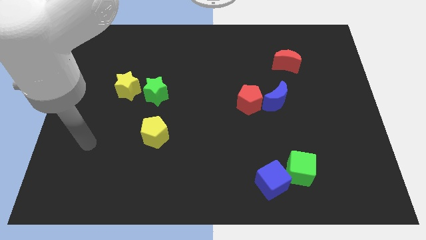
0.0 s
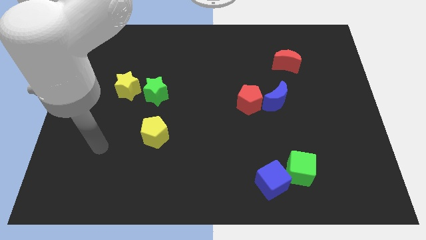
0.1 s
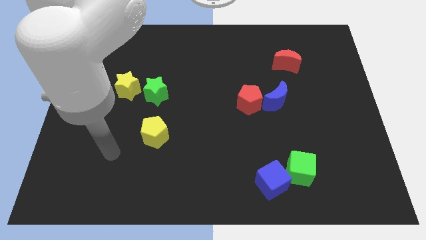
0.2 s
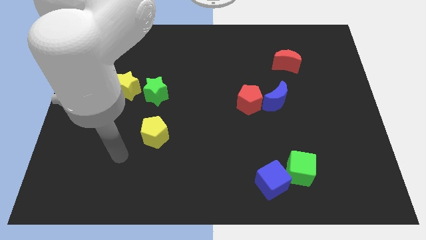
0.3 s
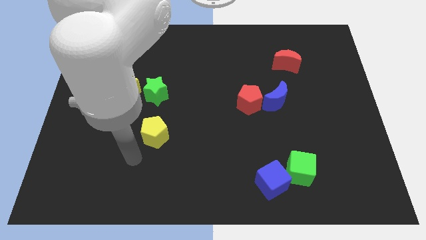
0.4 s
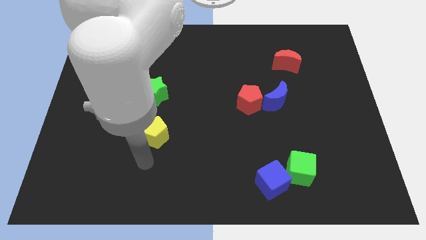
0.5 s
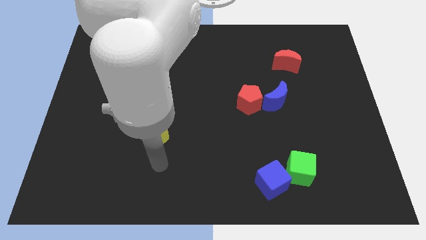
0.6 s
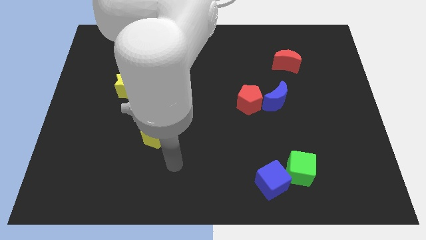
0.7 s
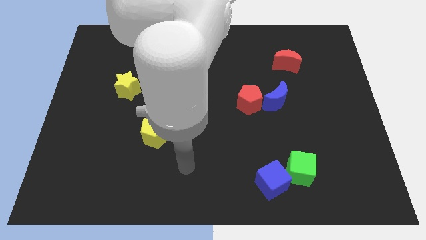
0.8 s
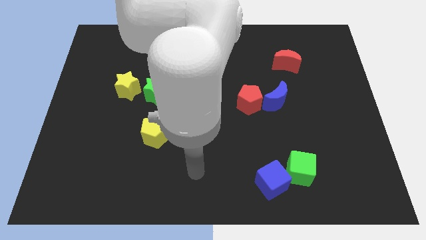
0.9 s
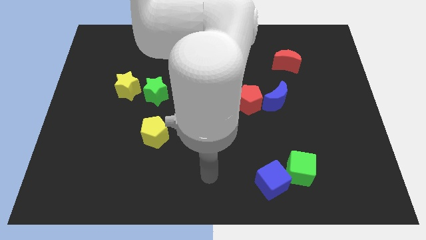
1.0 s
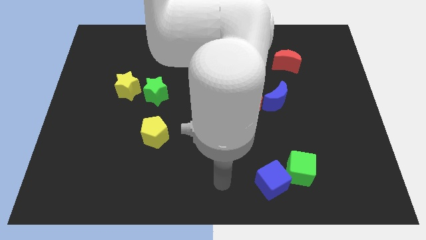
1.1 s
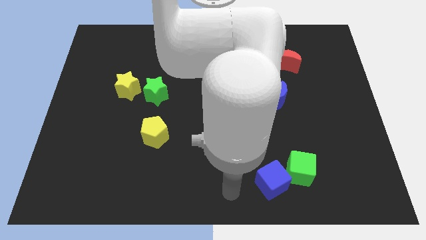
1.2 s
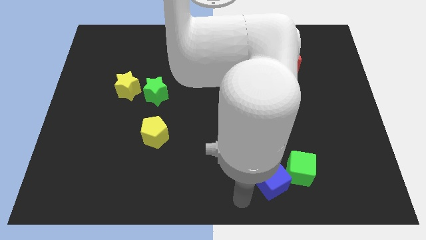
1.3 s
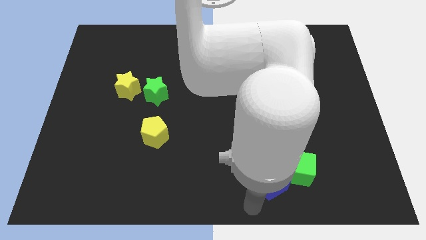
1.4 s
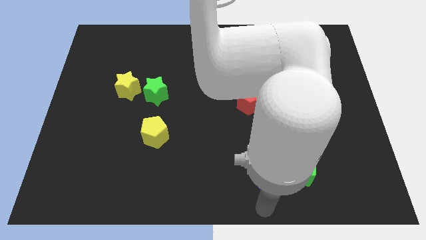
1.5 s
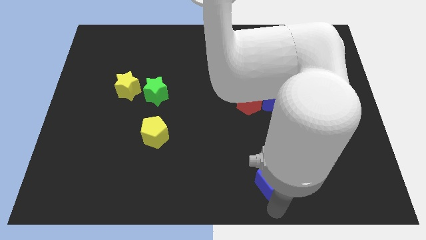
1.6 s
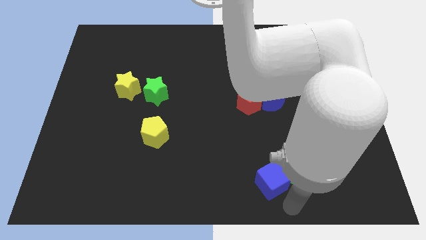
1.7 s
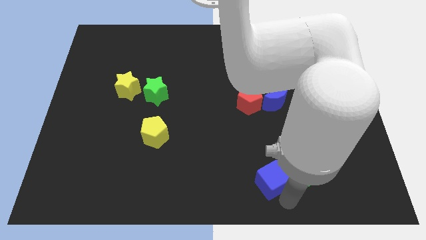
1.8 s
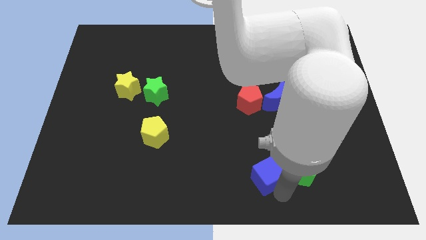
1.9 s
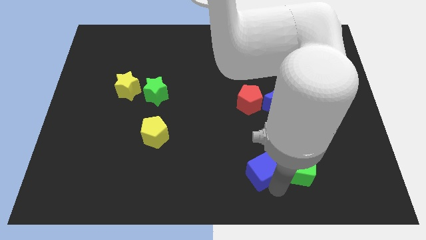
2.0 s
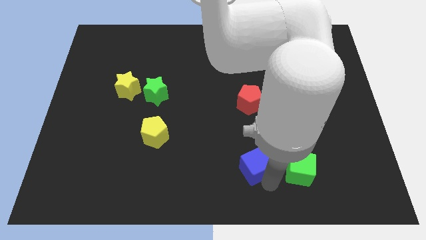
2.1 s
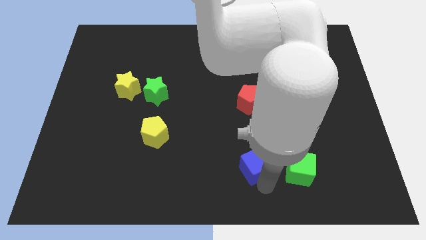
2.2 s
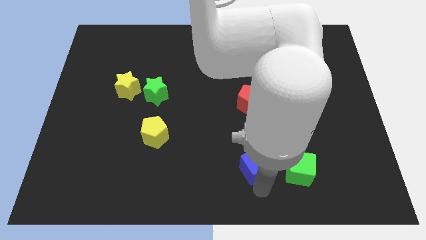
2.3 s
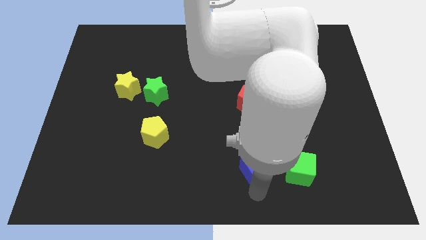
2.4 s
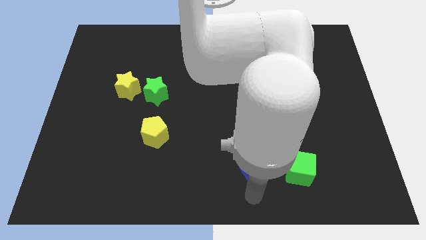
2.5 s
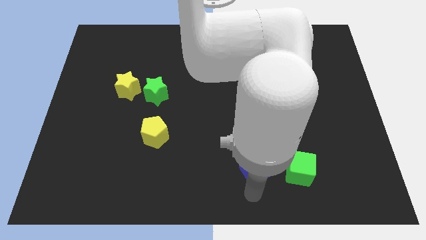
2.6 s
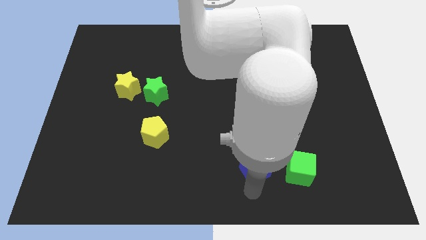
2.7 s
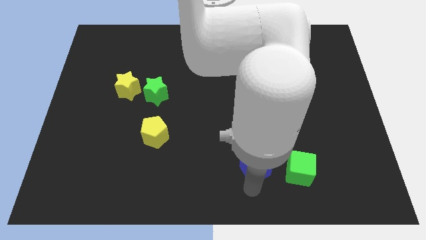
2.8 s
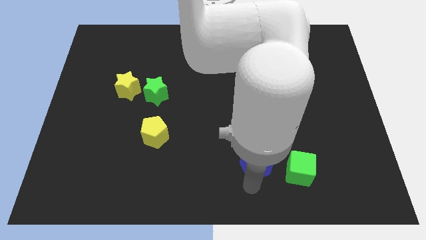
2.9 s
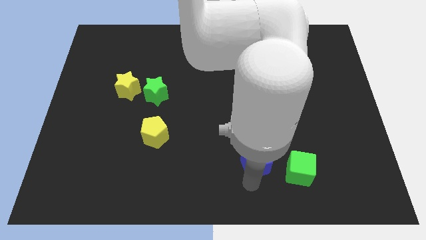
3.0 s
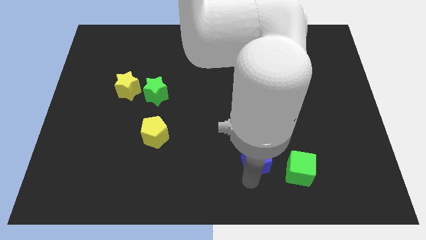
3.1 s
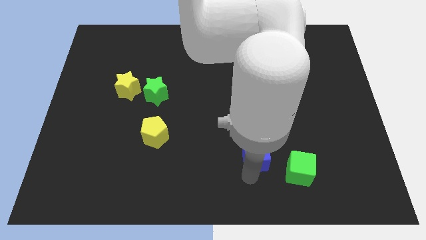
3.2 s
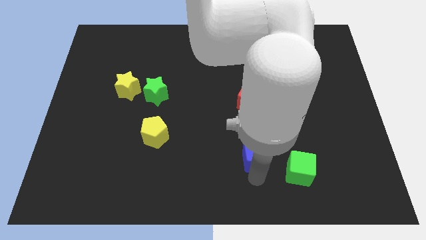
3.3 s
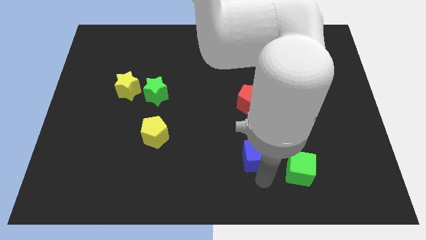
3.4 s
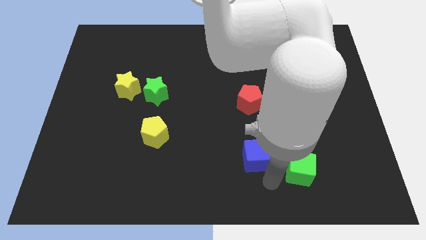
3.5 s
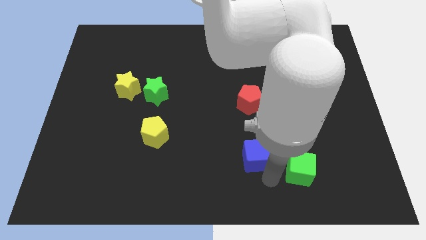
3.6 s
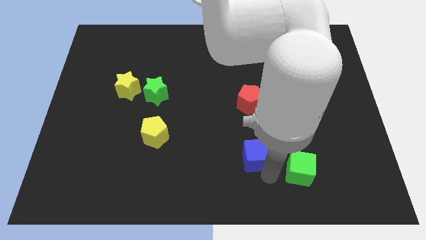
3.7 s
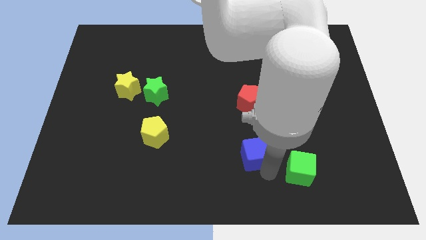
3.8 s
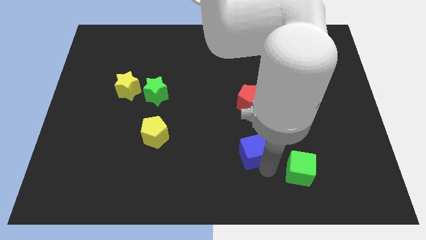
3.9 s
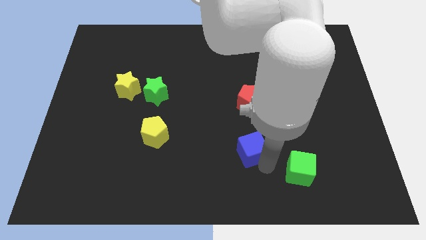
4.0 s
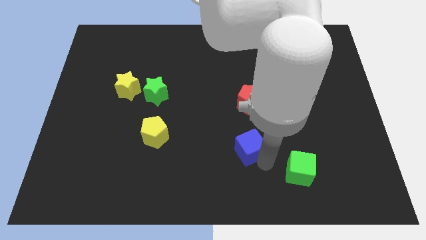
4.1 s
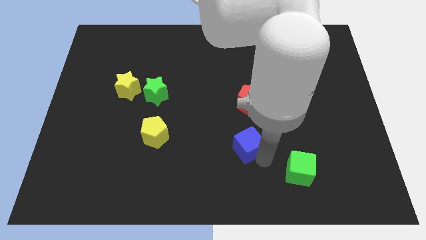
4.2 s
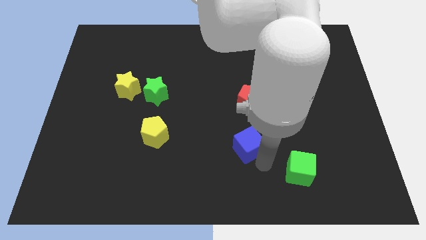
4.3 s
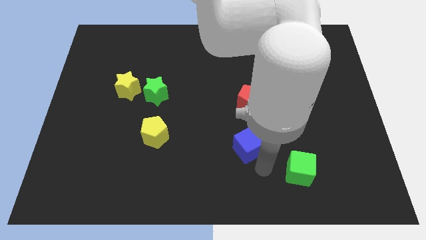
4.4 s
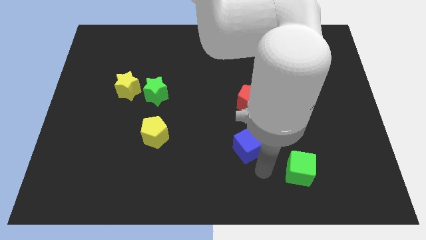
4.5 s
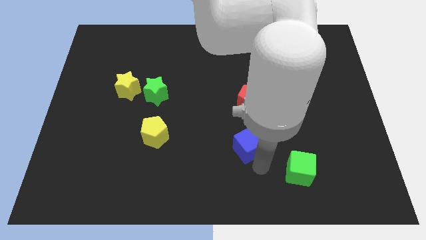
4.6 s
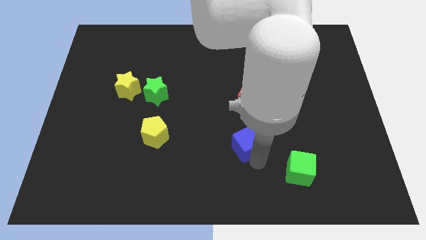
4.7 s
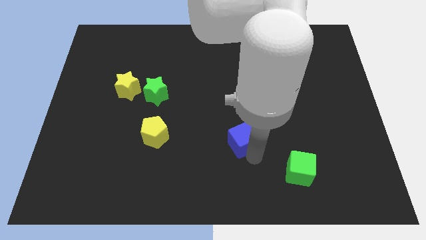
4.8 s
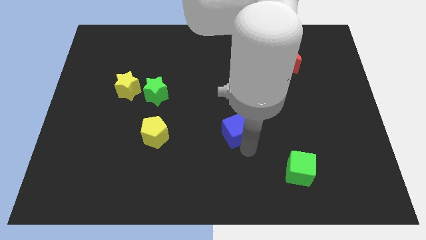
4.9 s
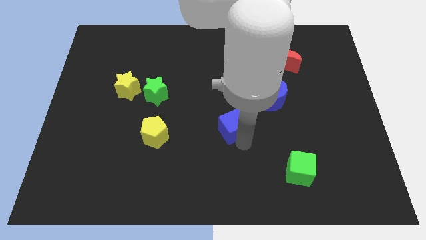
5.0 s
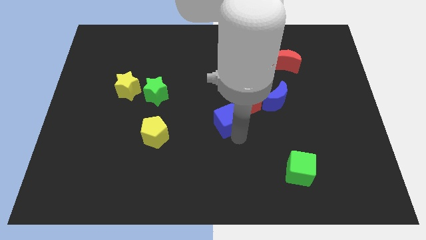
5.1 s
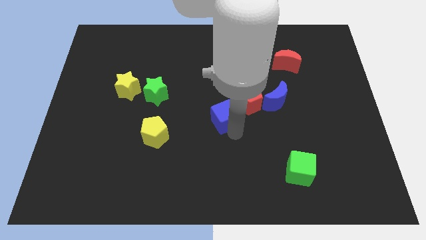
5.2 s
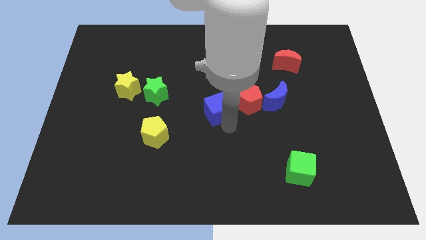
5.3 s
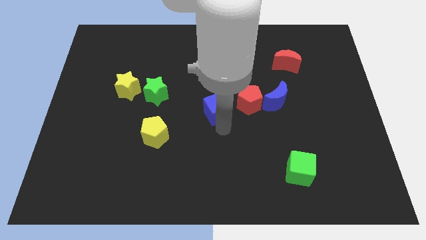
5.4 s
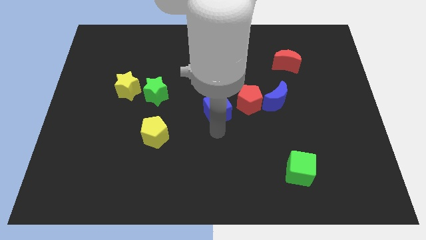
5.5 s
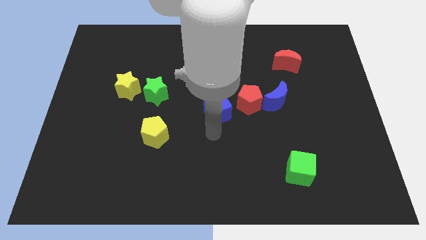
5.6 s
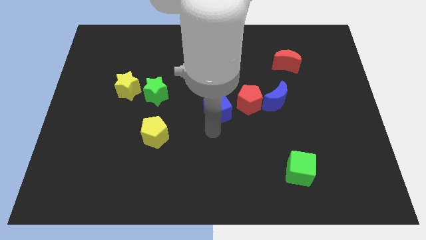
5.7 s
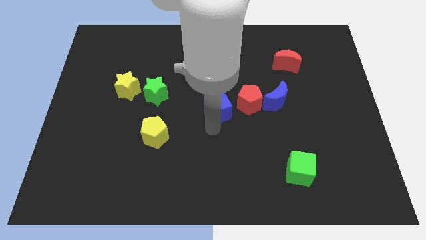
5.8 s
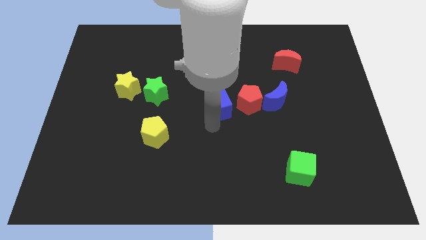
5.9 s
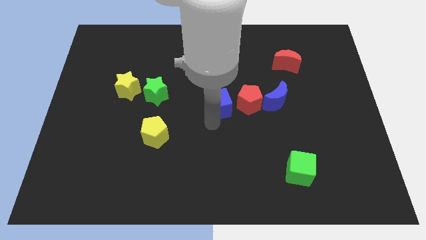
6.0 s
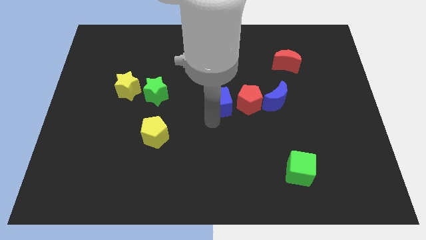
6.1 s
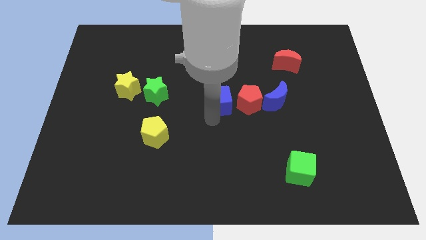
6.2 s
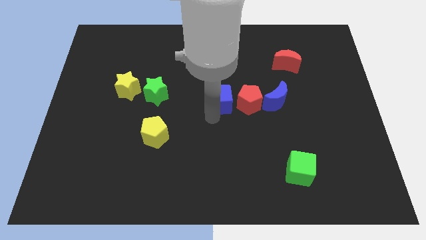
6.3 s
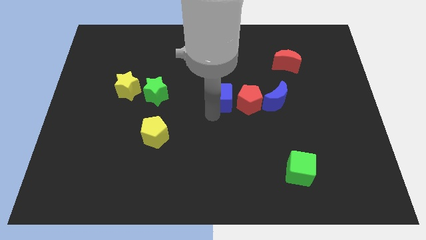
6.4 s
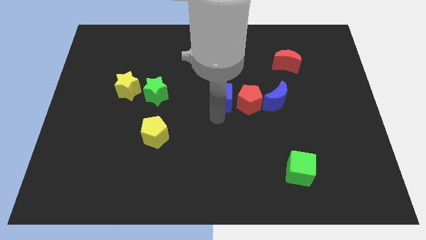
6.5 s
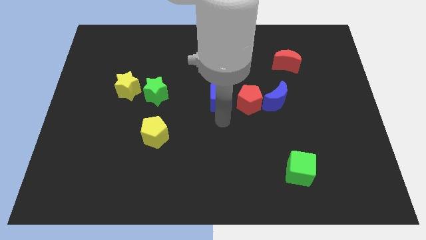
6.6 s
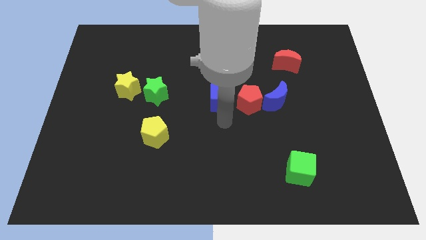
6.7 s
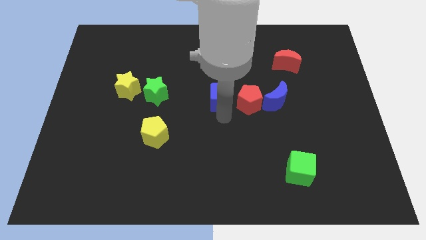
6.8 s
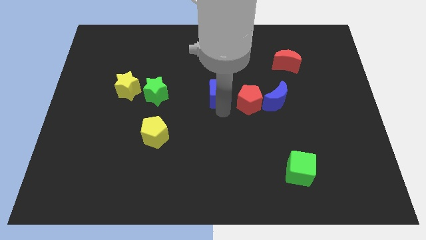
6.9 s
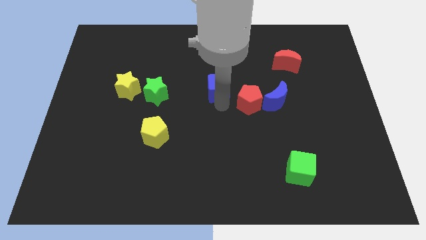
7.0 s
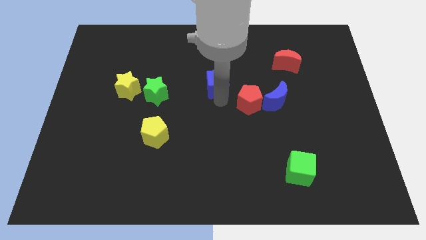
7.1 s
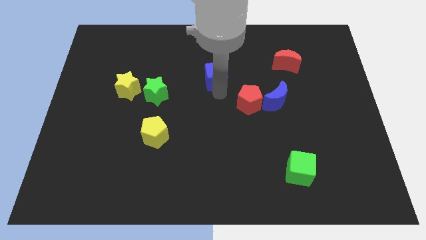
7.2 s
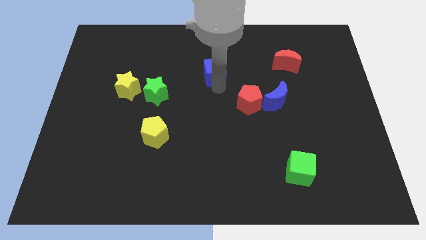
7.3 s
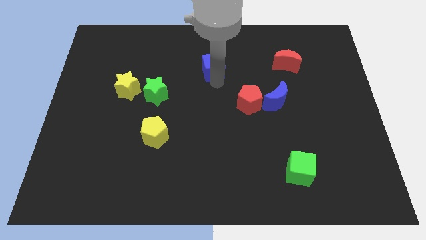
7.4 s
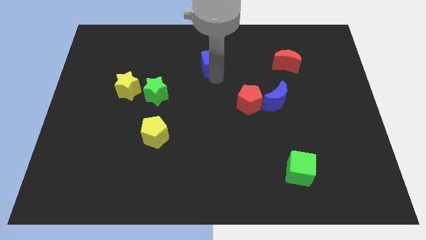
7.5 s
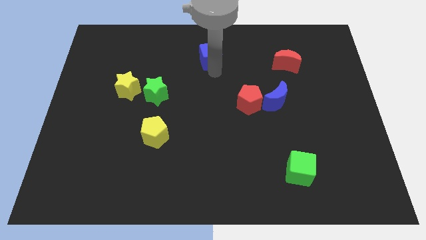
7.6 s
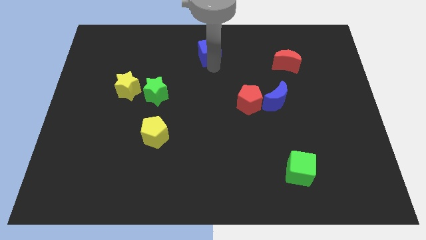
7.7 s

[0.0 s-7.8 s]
slide the blue cube to the top side
